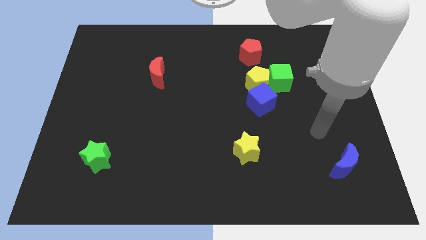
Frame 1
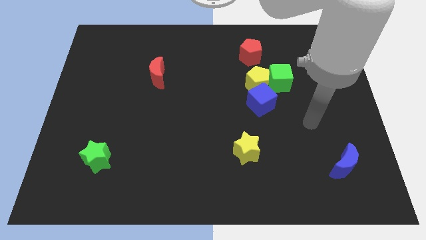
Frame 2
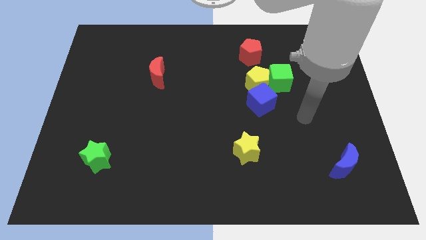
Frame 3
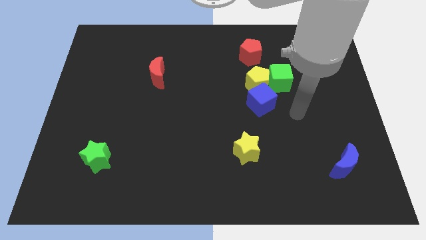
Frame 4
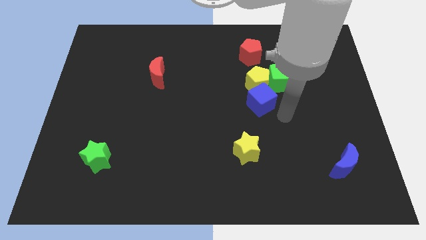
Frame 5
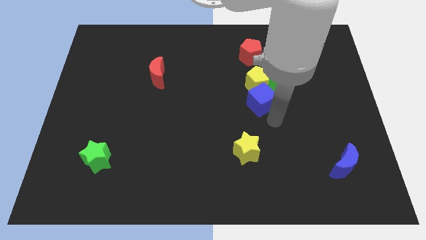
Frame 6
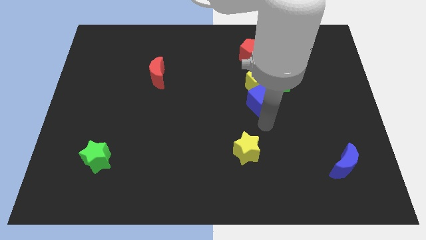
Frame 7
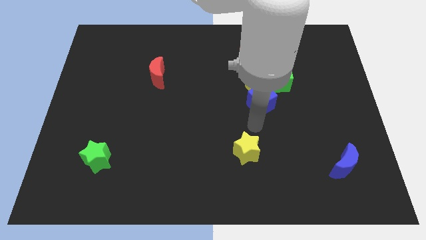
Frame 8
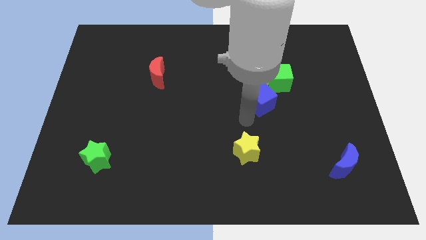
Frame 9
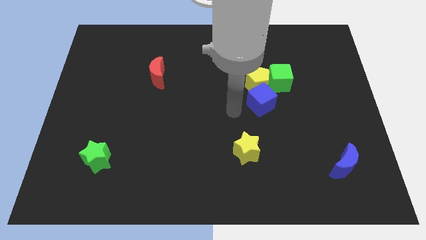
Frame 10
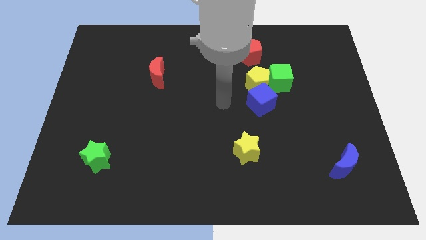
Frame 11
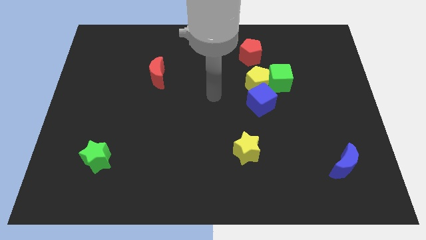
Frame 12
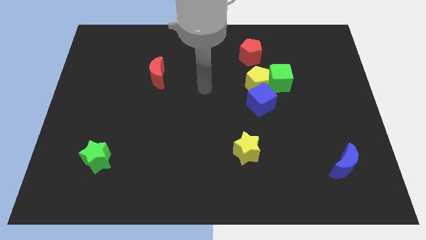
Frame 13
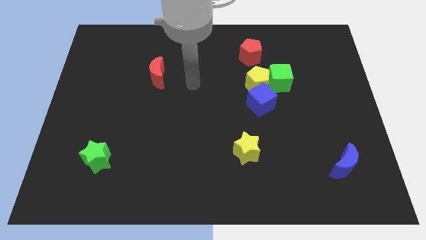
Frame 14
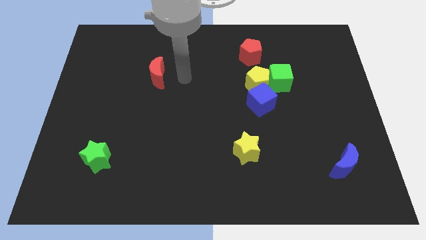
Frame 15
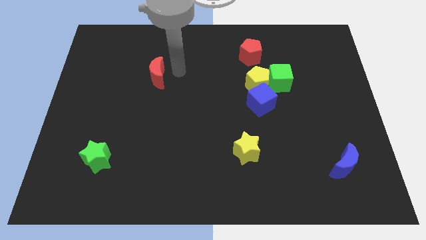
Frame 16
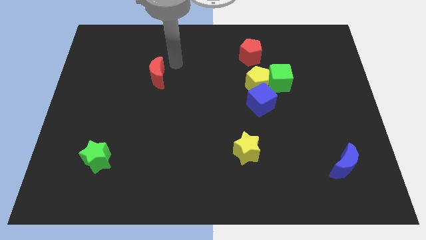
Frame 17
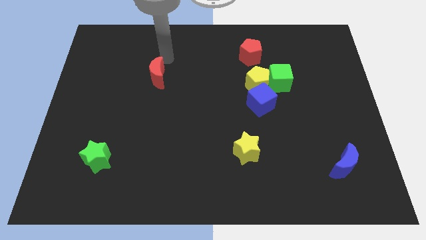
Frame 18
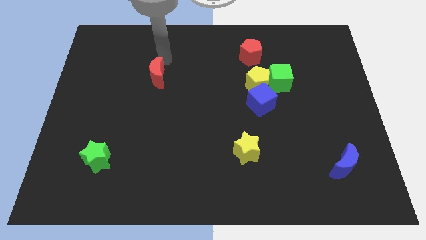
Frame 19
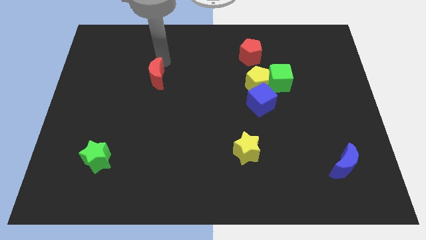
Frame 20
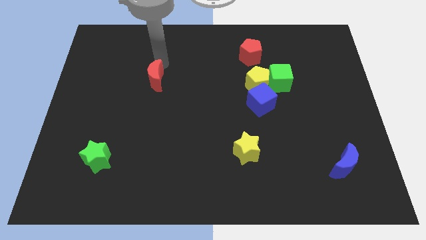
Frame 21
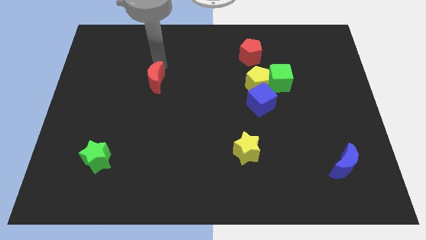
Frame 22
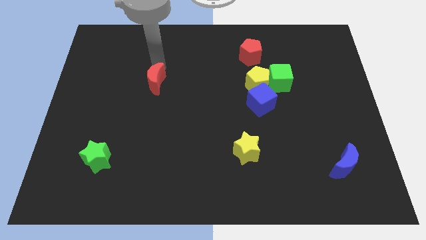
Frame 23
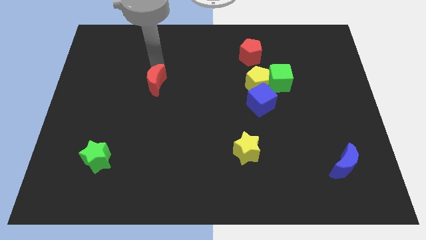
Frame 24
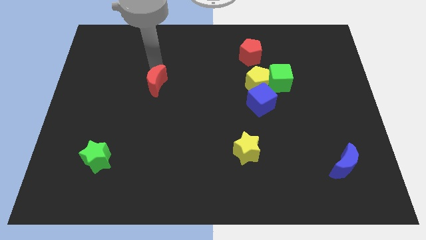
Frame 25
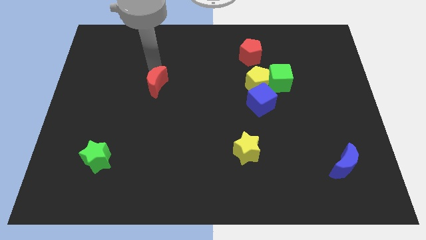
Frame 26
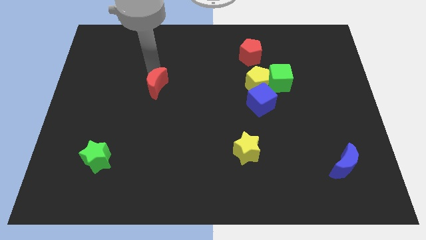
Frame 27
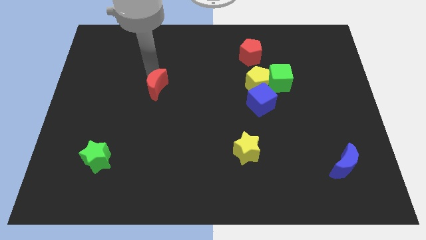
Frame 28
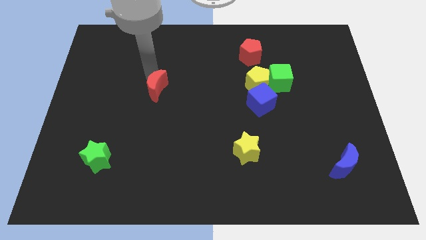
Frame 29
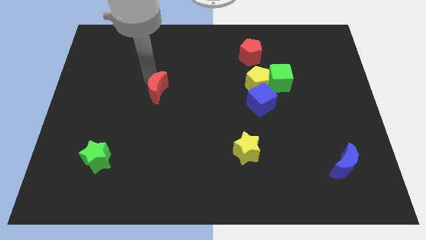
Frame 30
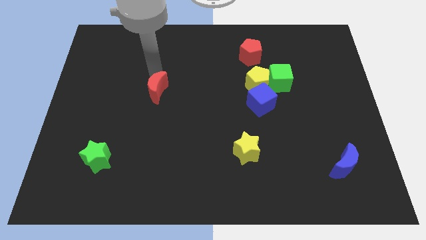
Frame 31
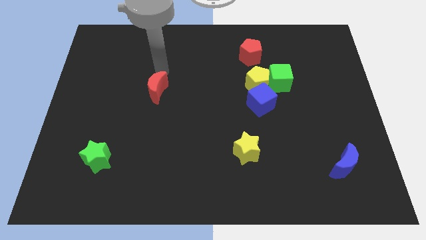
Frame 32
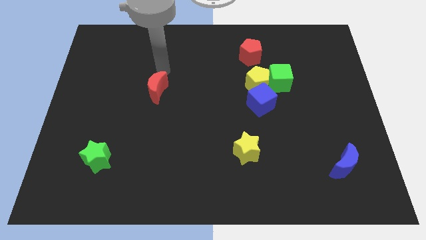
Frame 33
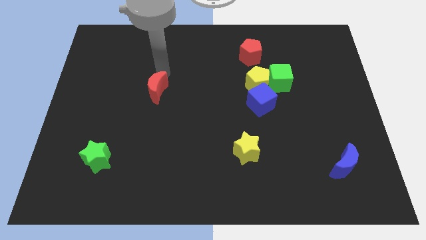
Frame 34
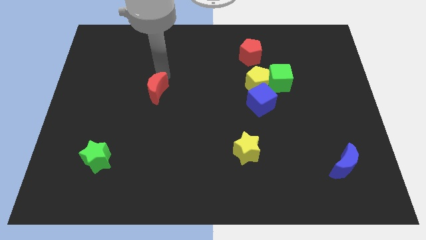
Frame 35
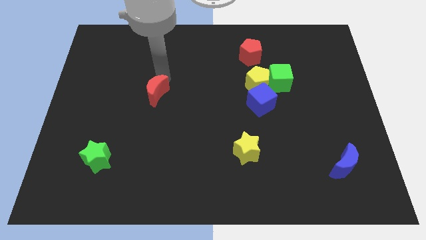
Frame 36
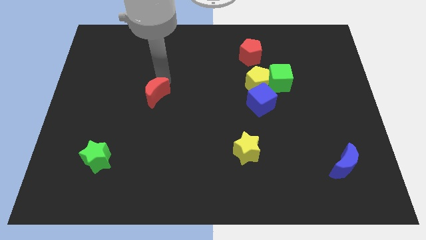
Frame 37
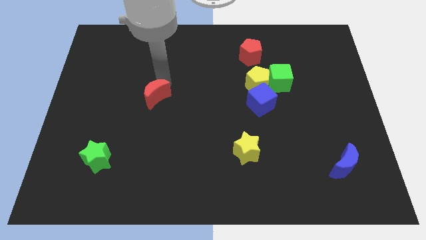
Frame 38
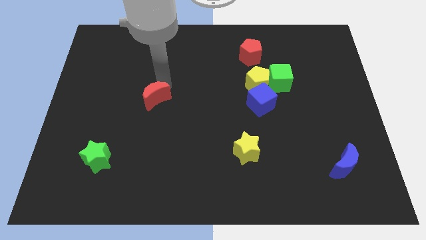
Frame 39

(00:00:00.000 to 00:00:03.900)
slightly slide the red moon down

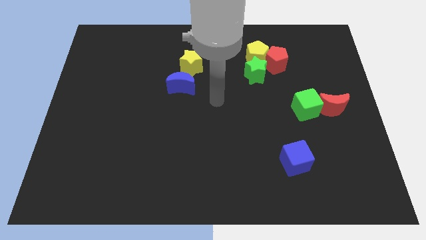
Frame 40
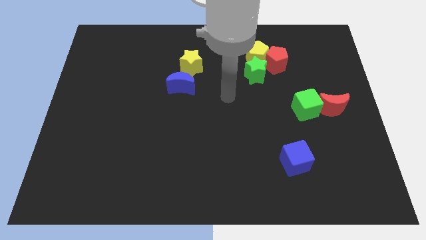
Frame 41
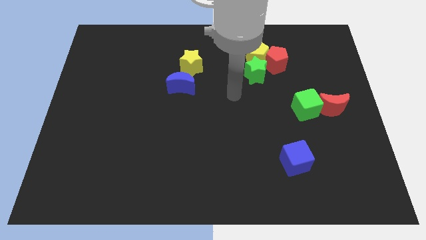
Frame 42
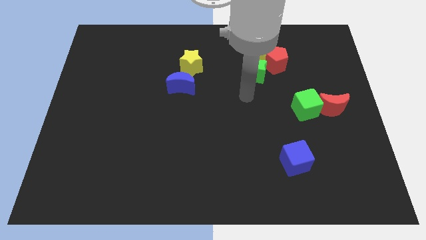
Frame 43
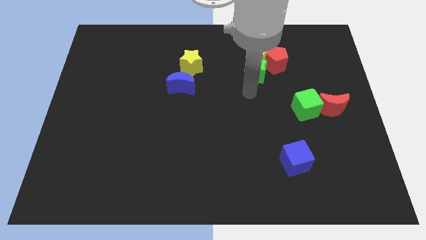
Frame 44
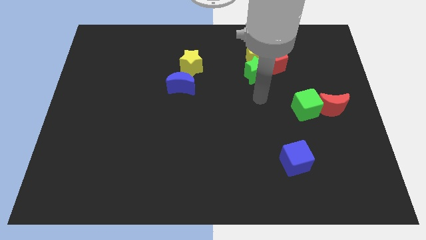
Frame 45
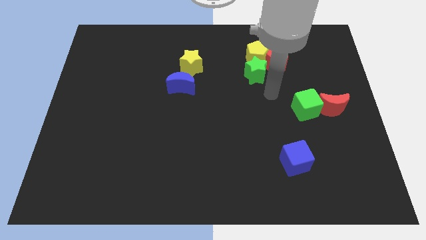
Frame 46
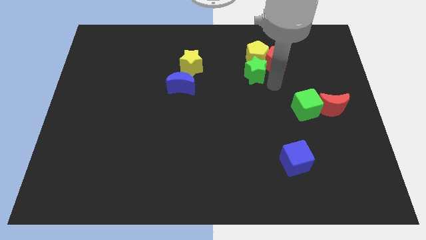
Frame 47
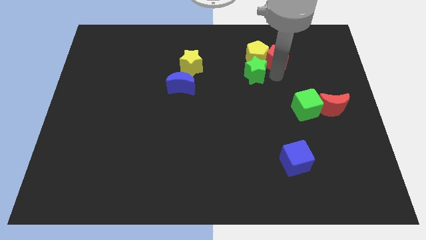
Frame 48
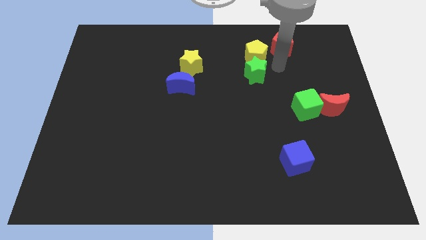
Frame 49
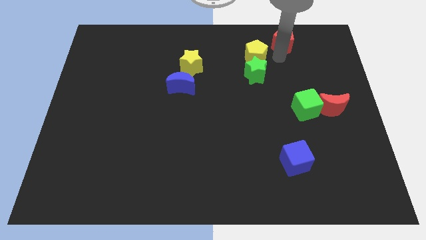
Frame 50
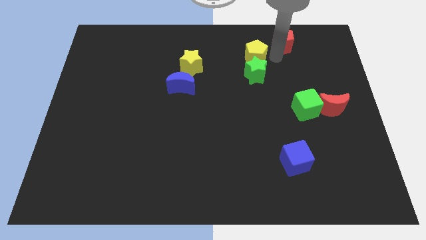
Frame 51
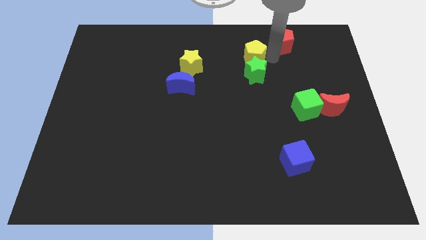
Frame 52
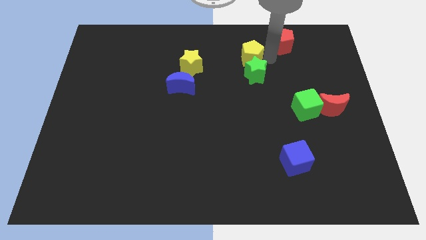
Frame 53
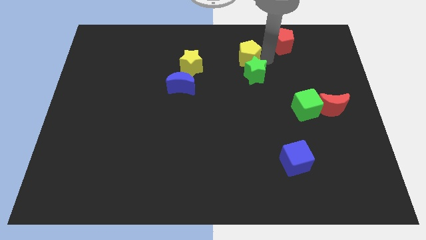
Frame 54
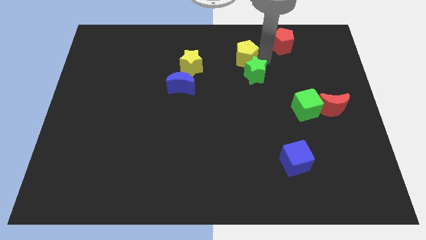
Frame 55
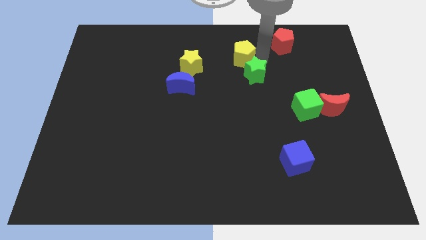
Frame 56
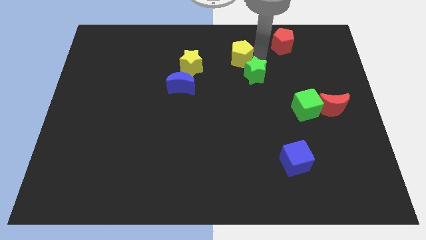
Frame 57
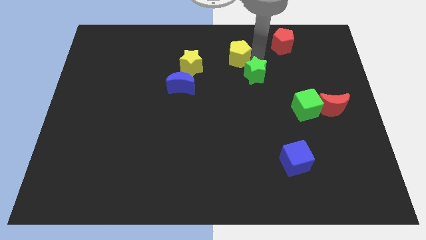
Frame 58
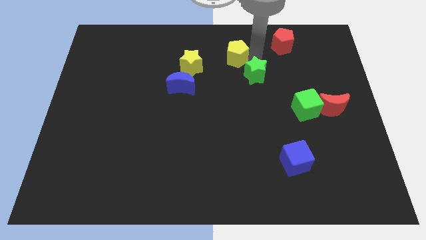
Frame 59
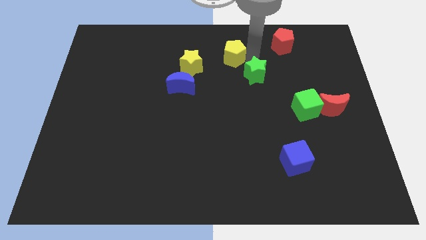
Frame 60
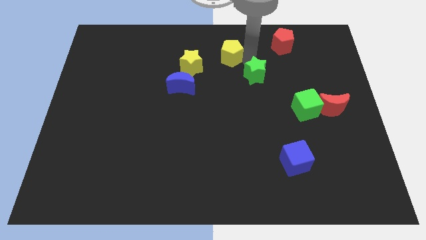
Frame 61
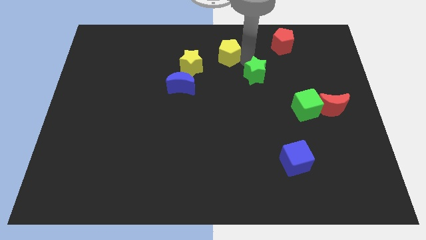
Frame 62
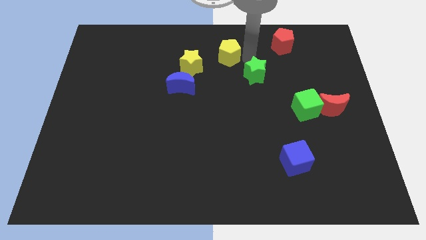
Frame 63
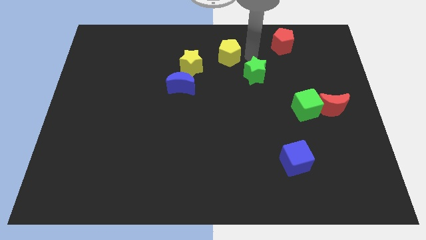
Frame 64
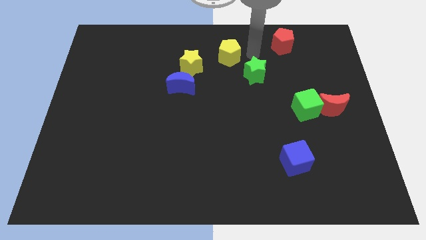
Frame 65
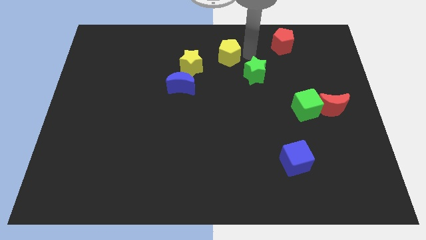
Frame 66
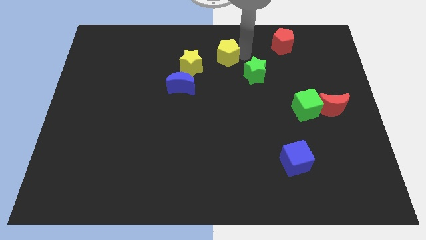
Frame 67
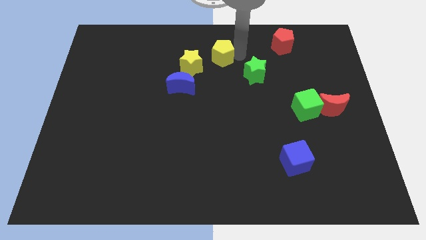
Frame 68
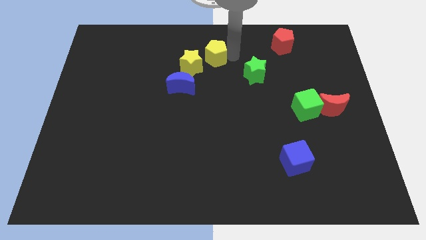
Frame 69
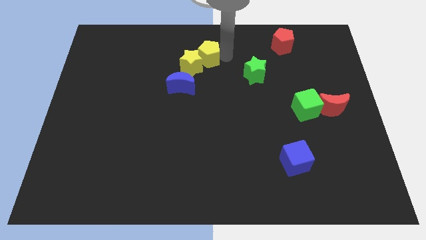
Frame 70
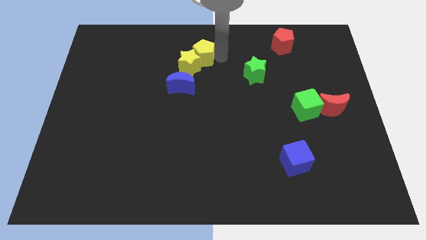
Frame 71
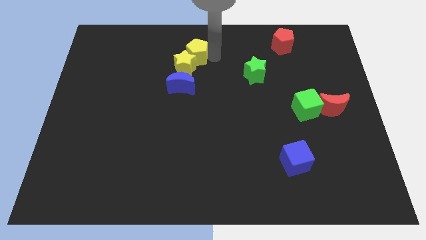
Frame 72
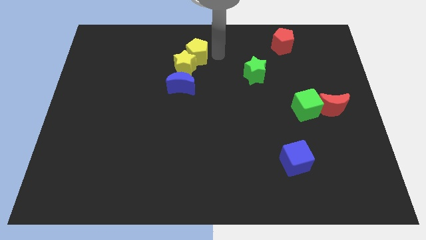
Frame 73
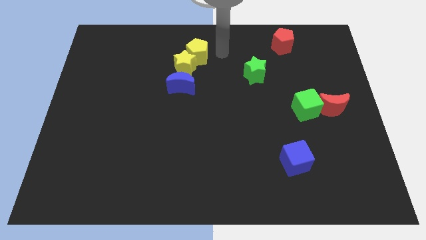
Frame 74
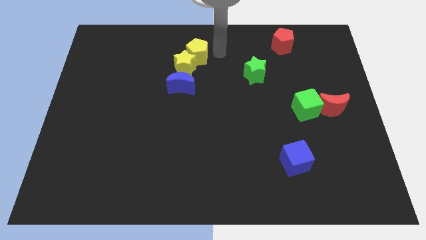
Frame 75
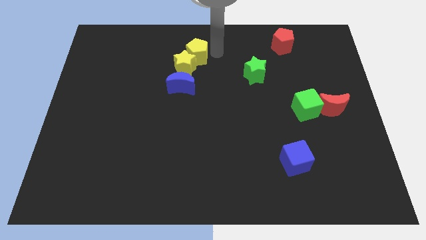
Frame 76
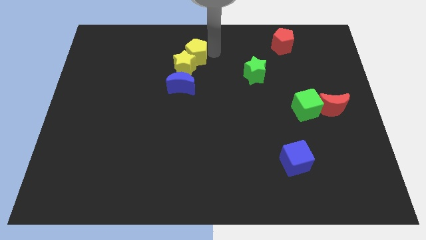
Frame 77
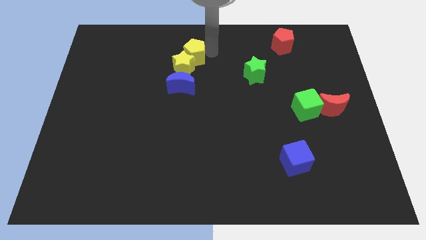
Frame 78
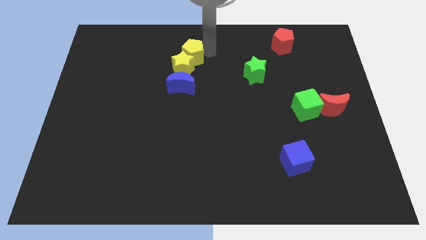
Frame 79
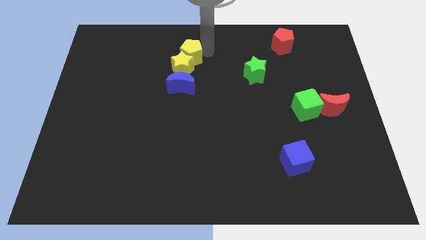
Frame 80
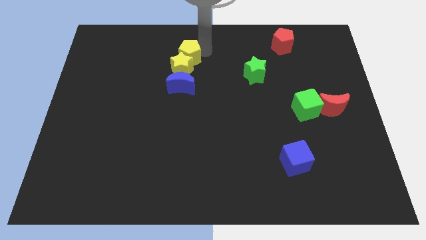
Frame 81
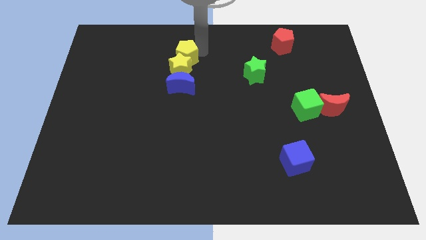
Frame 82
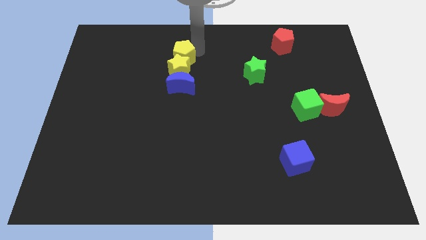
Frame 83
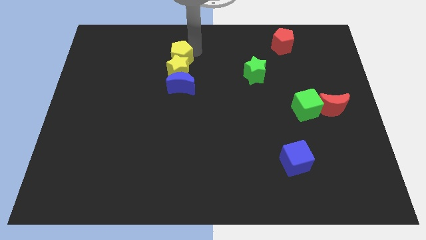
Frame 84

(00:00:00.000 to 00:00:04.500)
move the yellow pentagon left
